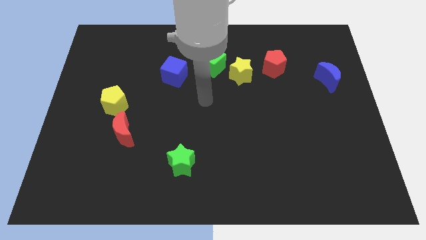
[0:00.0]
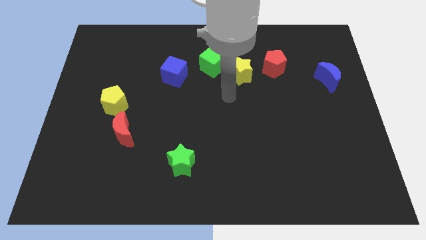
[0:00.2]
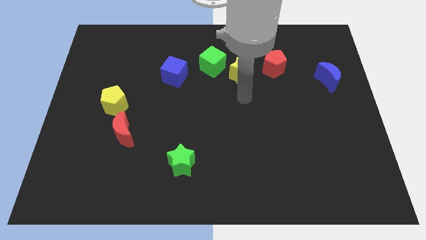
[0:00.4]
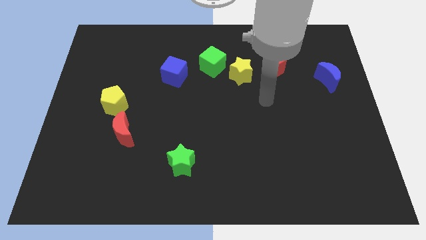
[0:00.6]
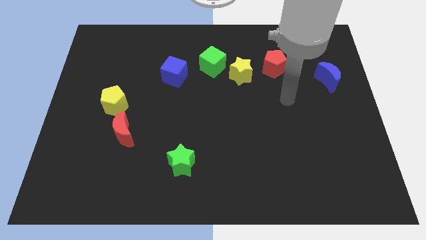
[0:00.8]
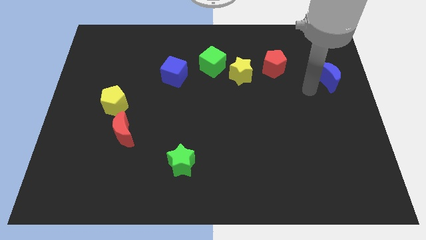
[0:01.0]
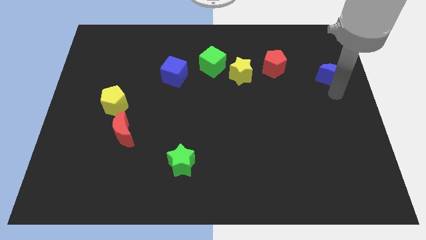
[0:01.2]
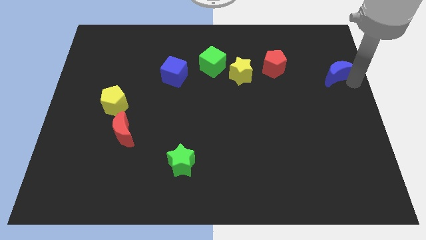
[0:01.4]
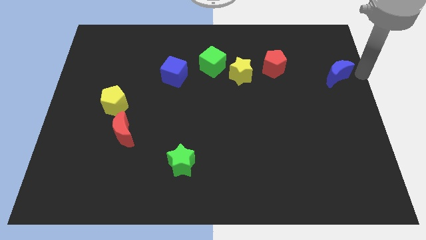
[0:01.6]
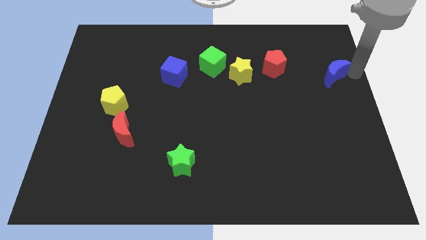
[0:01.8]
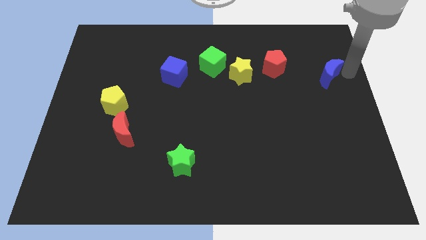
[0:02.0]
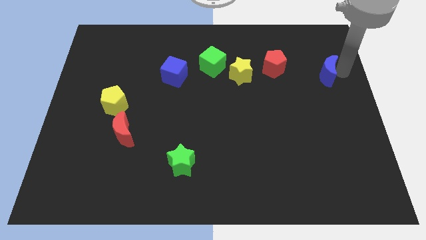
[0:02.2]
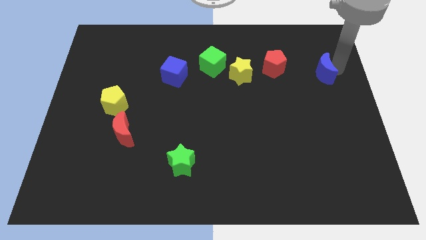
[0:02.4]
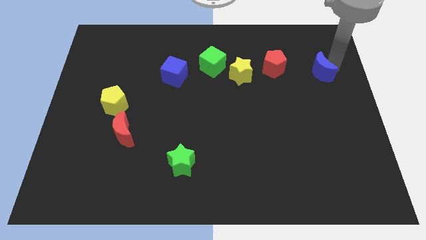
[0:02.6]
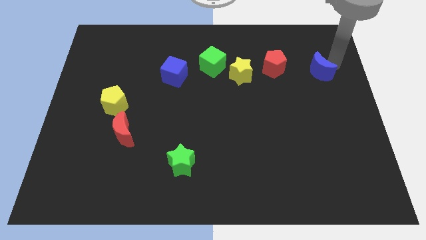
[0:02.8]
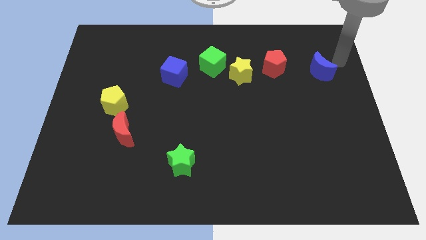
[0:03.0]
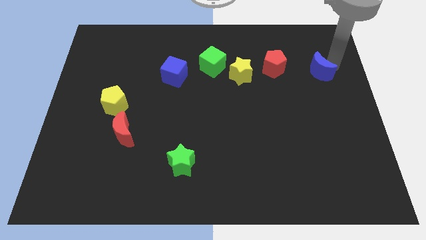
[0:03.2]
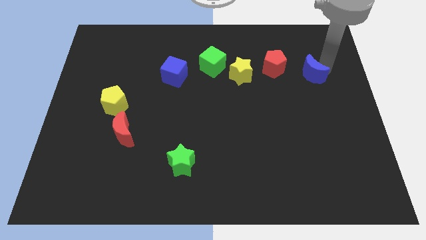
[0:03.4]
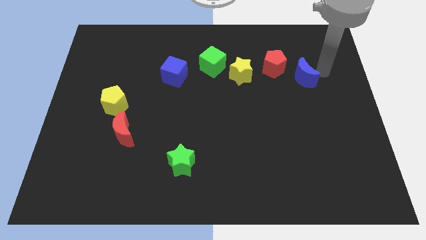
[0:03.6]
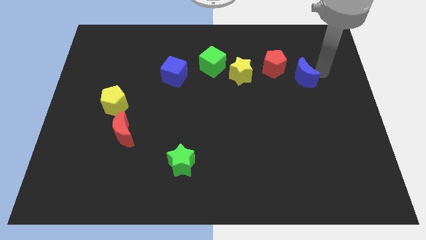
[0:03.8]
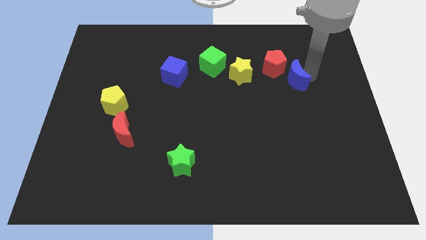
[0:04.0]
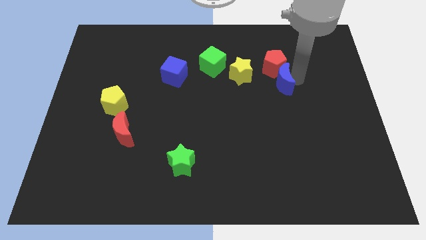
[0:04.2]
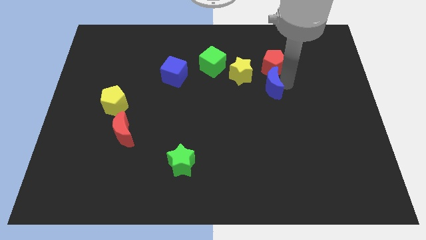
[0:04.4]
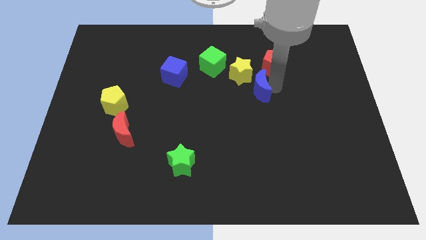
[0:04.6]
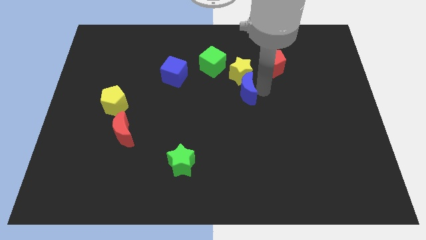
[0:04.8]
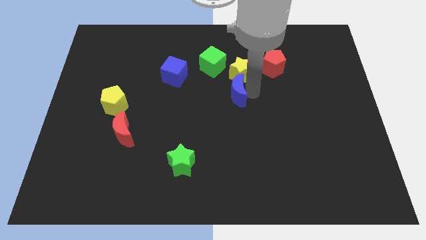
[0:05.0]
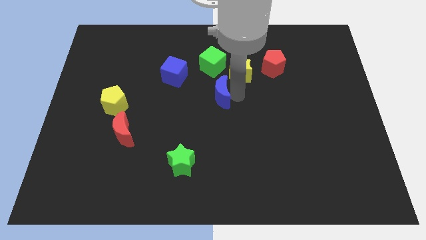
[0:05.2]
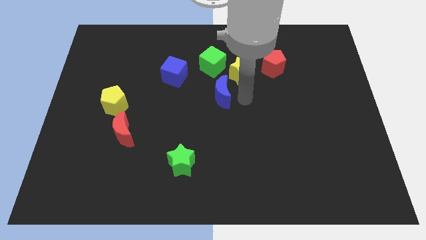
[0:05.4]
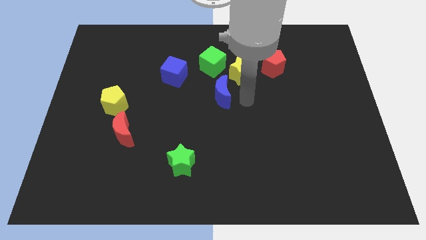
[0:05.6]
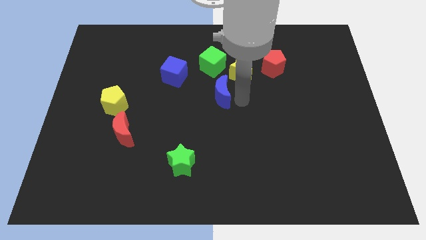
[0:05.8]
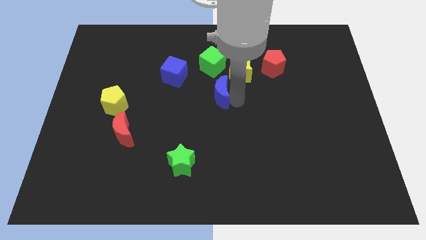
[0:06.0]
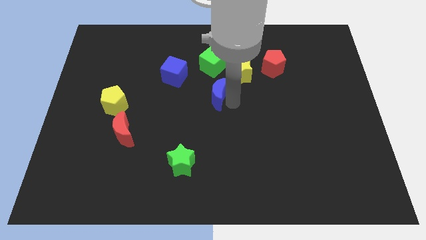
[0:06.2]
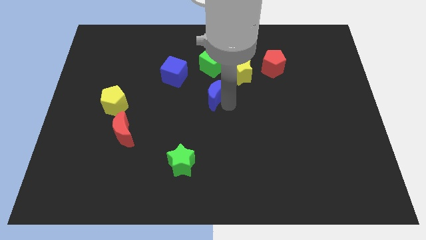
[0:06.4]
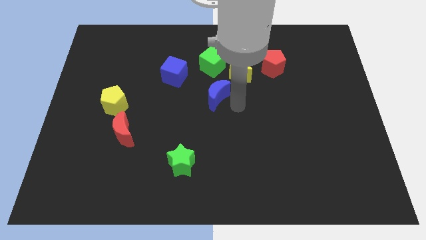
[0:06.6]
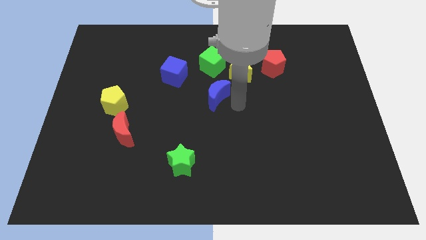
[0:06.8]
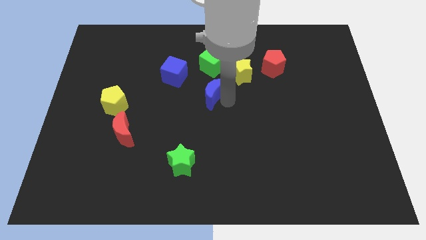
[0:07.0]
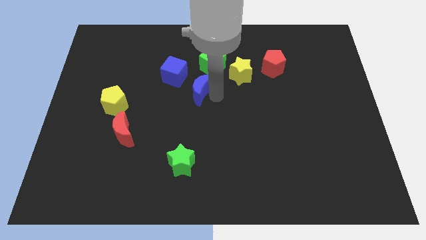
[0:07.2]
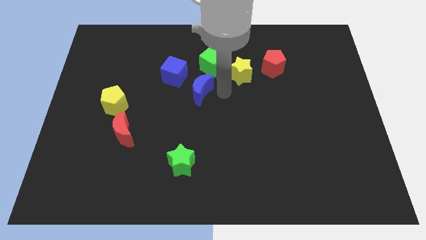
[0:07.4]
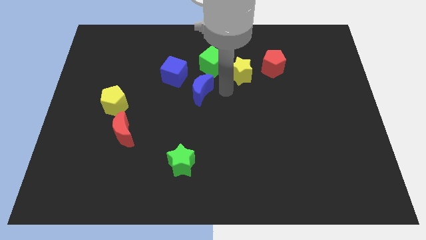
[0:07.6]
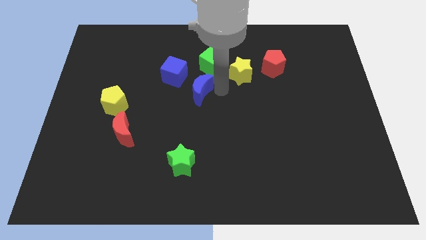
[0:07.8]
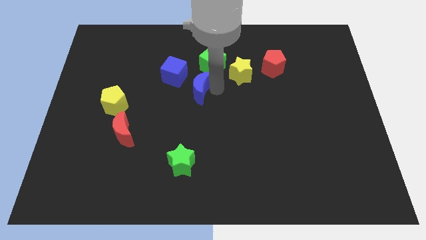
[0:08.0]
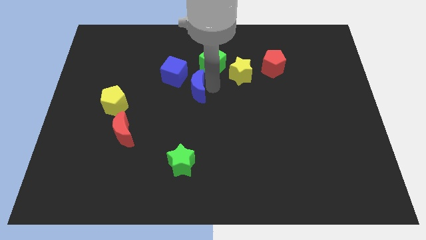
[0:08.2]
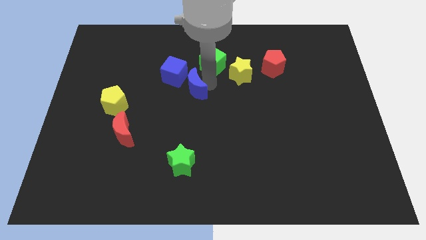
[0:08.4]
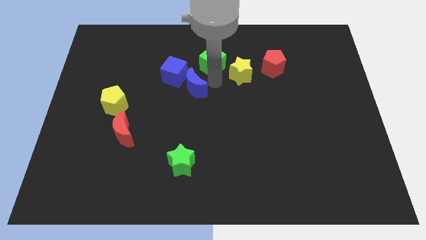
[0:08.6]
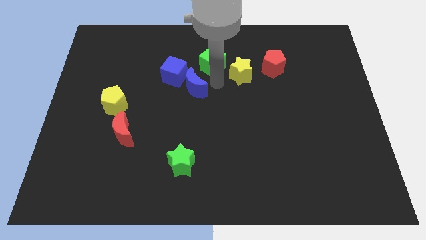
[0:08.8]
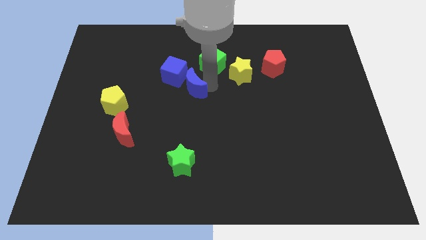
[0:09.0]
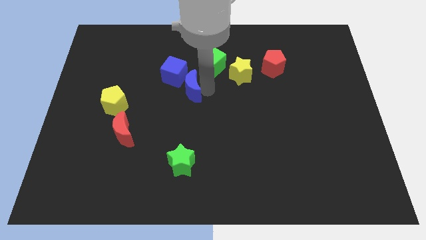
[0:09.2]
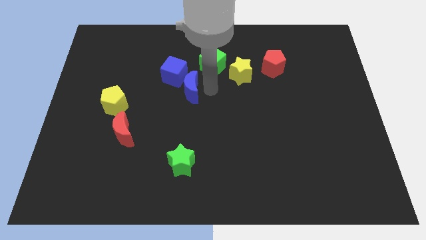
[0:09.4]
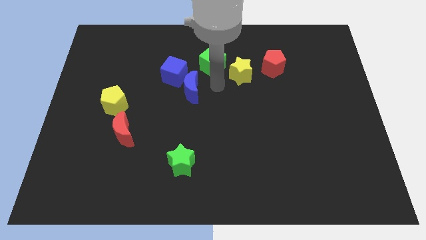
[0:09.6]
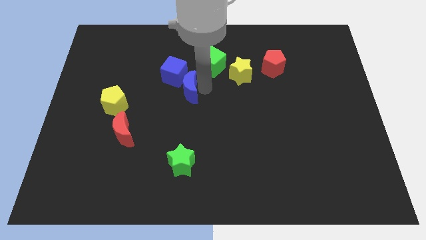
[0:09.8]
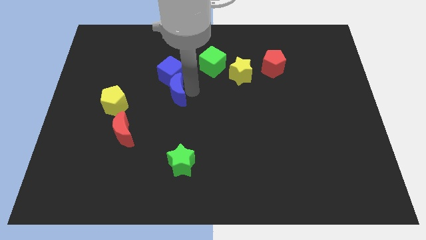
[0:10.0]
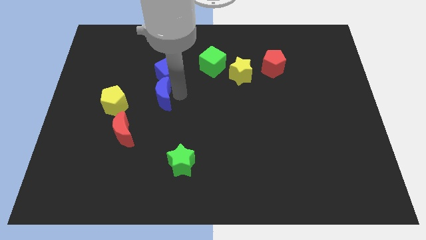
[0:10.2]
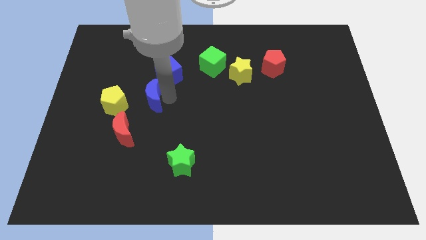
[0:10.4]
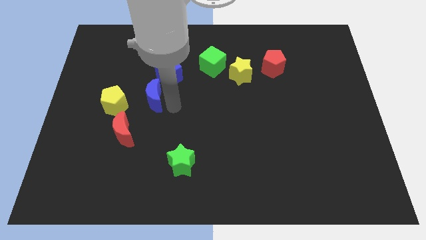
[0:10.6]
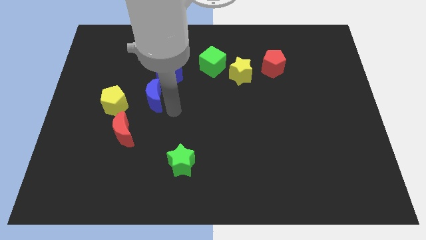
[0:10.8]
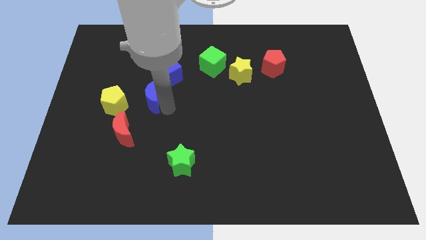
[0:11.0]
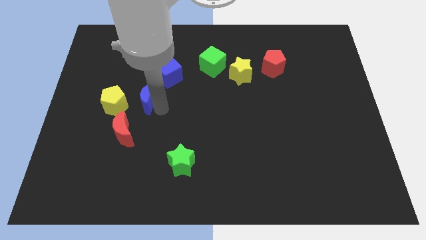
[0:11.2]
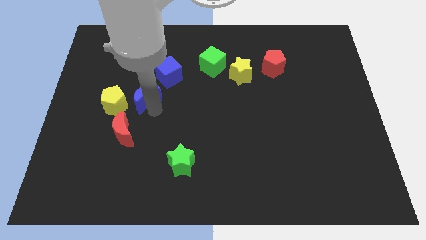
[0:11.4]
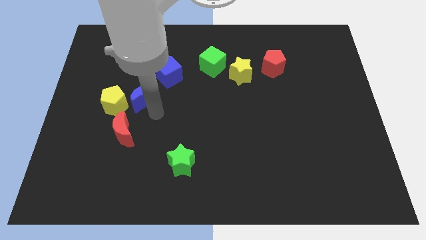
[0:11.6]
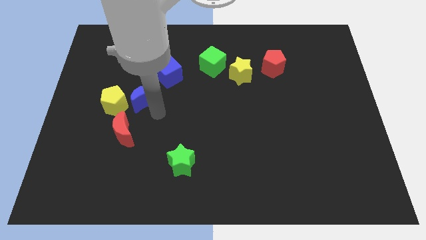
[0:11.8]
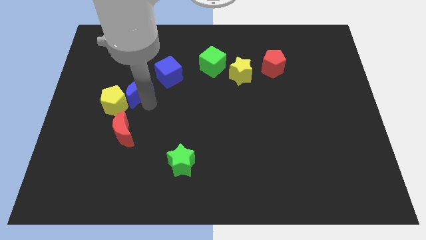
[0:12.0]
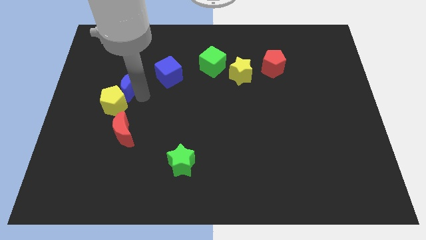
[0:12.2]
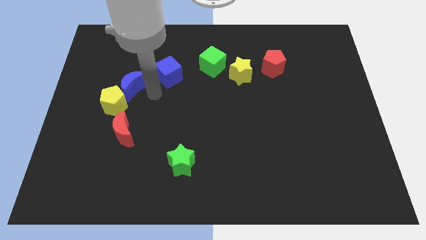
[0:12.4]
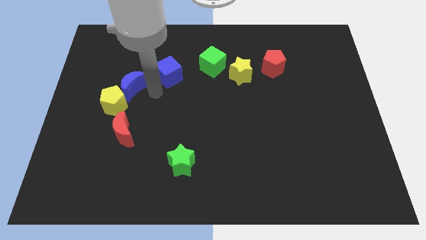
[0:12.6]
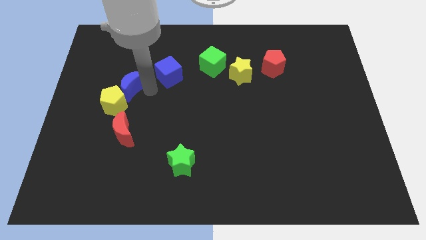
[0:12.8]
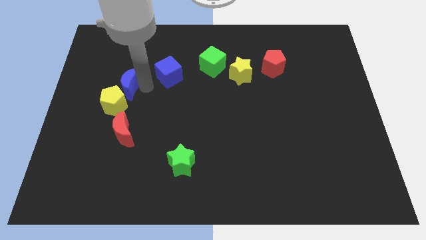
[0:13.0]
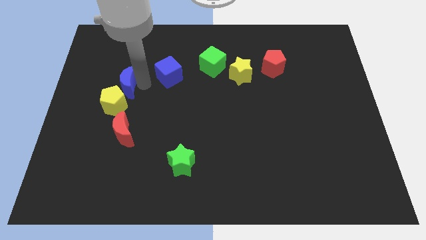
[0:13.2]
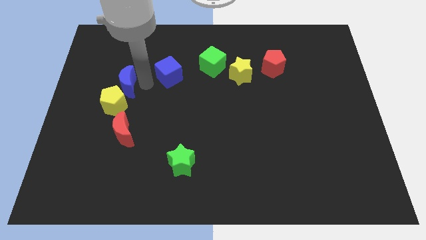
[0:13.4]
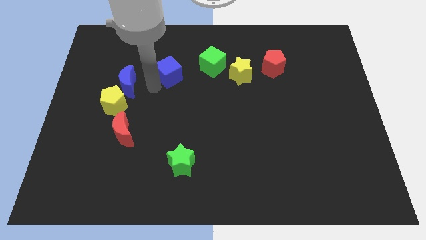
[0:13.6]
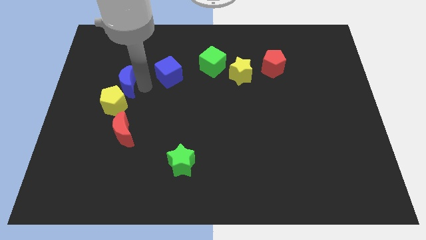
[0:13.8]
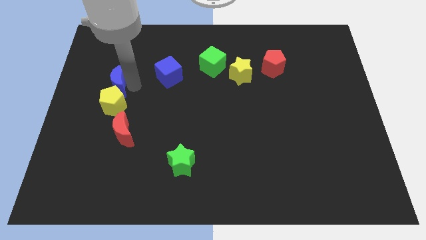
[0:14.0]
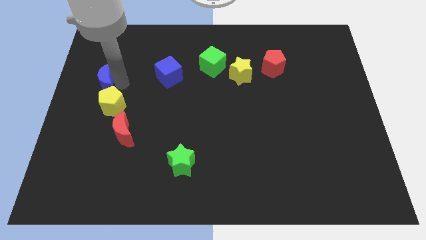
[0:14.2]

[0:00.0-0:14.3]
push the blue moon to the left side of the board
